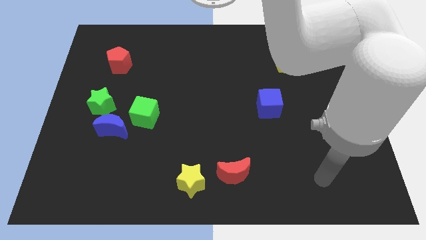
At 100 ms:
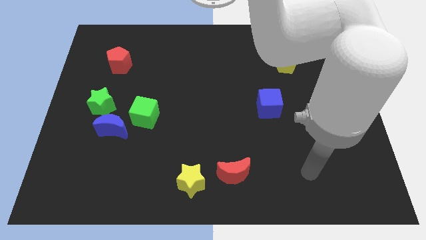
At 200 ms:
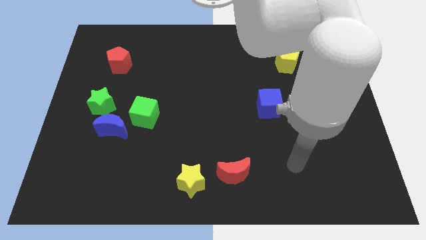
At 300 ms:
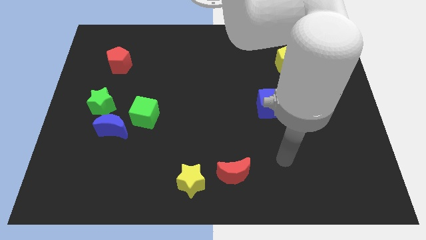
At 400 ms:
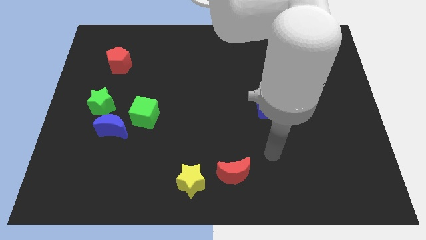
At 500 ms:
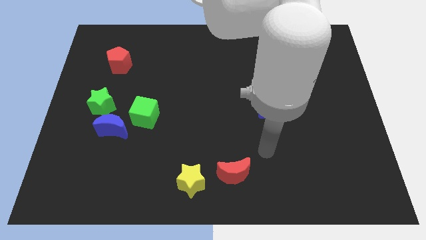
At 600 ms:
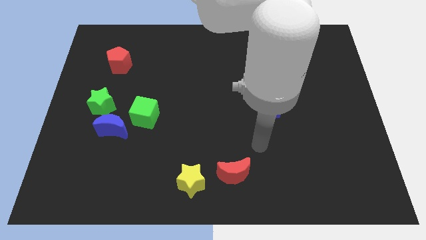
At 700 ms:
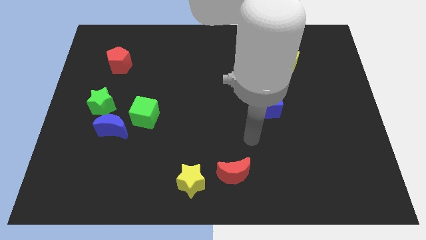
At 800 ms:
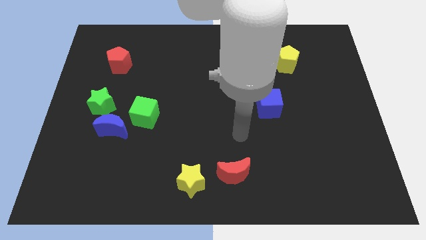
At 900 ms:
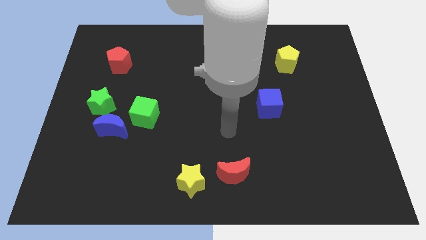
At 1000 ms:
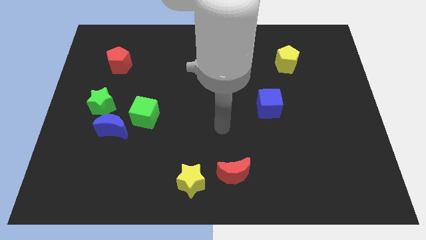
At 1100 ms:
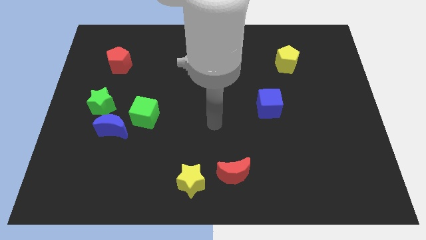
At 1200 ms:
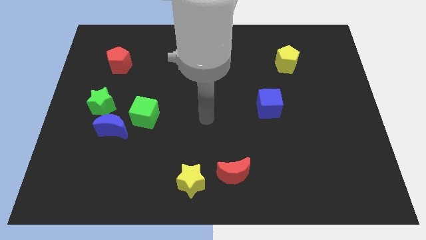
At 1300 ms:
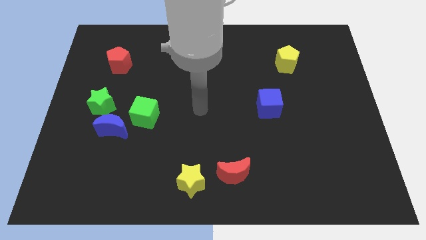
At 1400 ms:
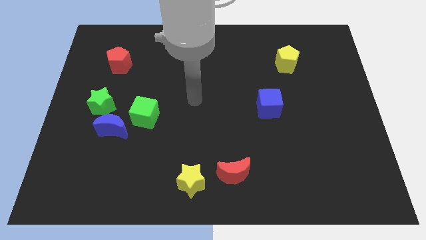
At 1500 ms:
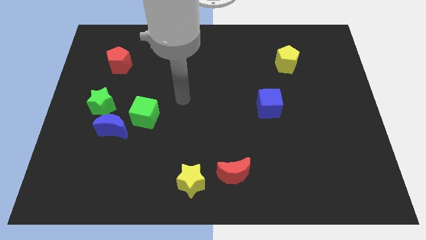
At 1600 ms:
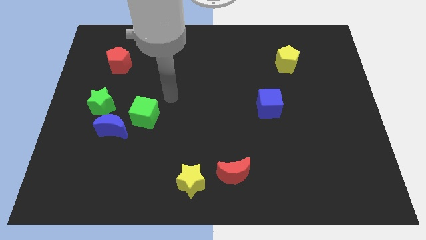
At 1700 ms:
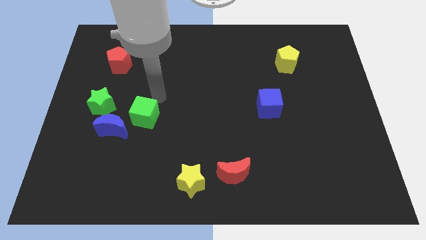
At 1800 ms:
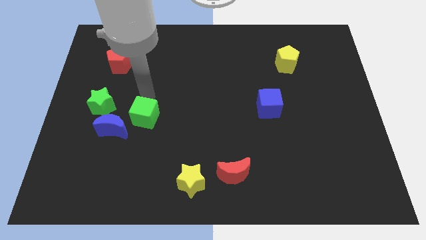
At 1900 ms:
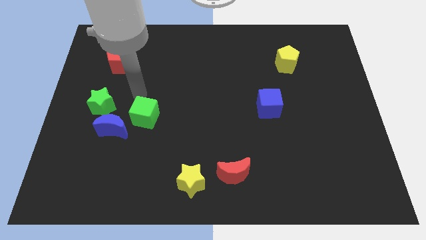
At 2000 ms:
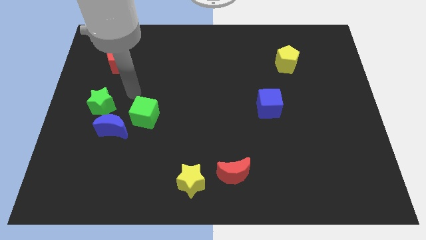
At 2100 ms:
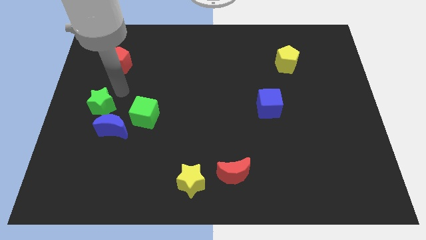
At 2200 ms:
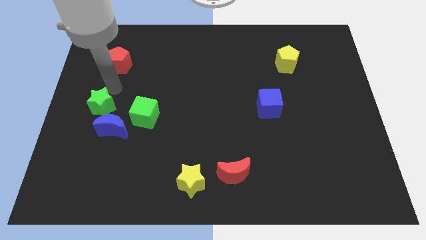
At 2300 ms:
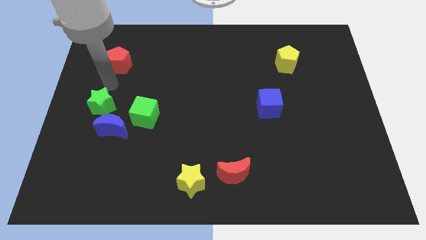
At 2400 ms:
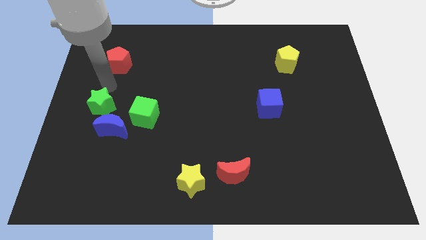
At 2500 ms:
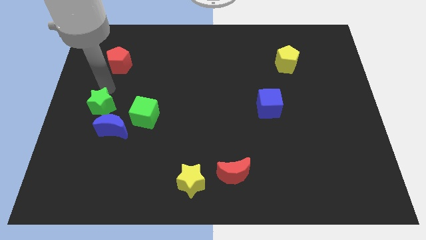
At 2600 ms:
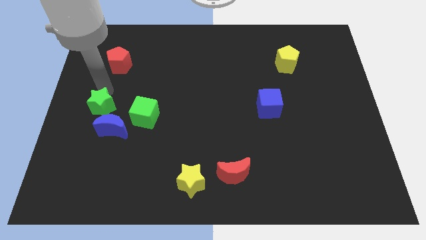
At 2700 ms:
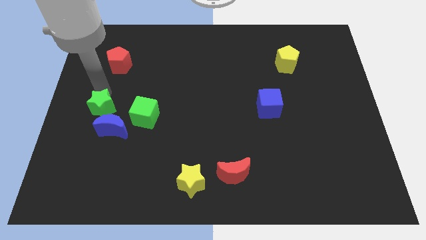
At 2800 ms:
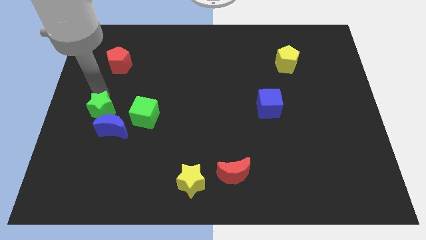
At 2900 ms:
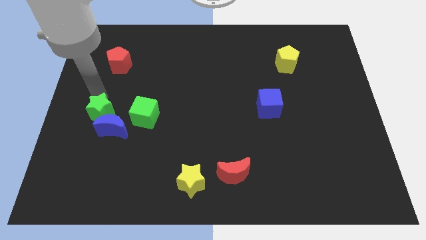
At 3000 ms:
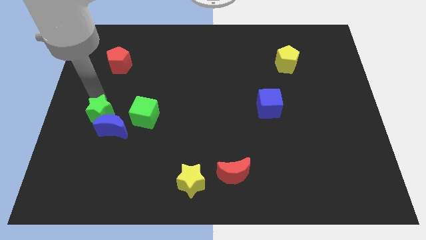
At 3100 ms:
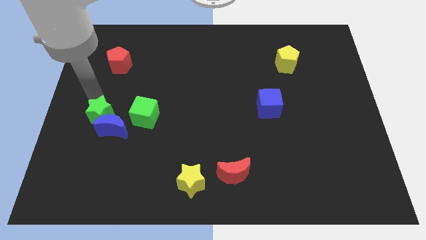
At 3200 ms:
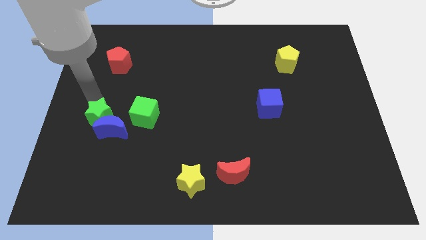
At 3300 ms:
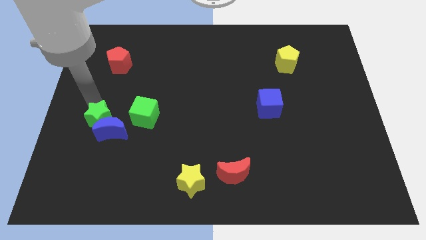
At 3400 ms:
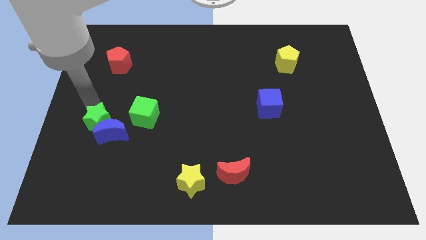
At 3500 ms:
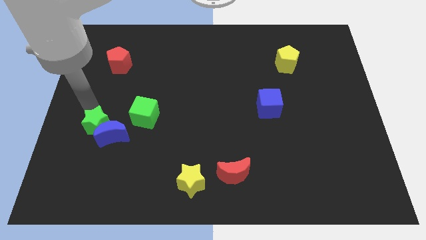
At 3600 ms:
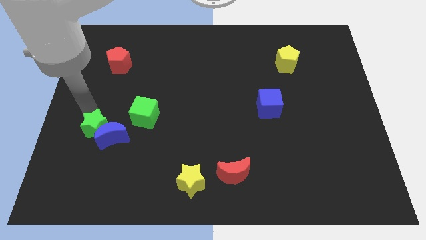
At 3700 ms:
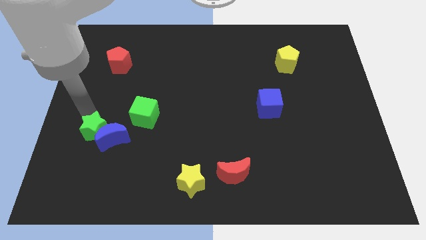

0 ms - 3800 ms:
move the green star a little bit down

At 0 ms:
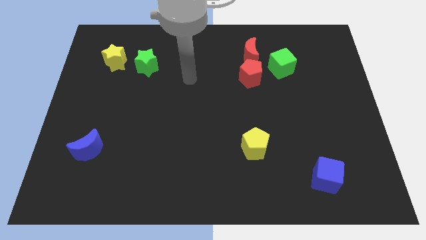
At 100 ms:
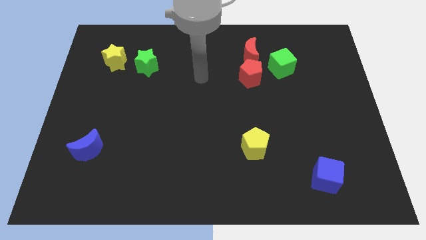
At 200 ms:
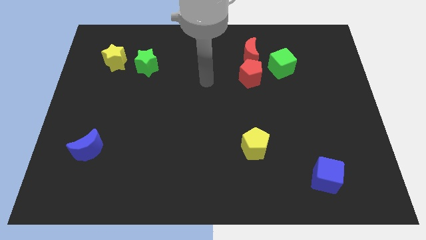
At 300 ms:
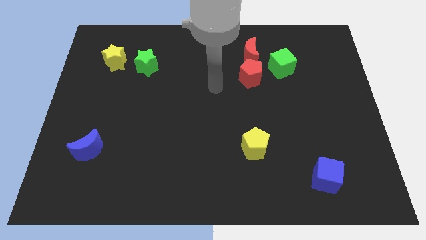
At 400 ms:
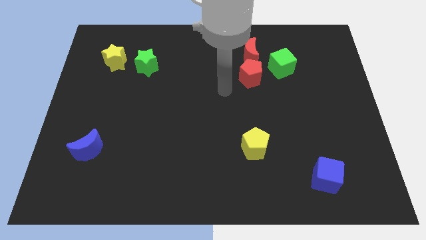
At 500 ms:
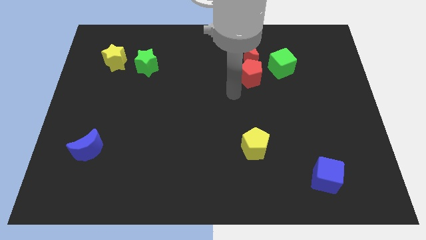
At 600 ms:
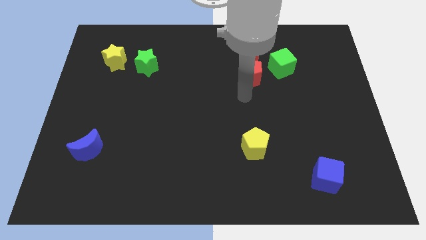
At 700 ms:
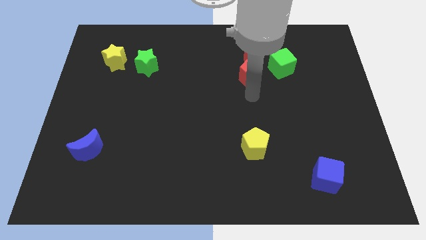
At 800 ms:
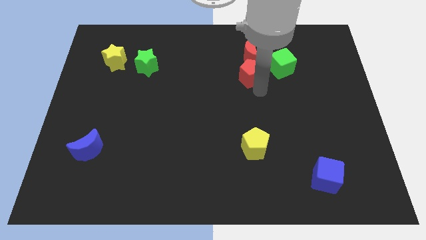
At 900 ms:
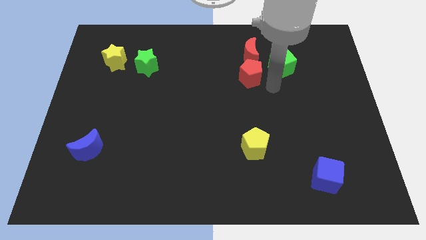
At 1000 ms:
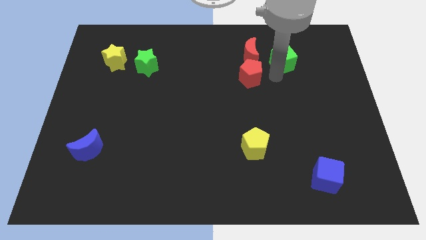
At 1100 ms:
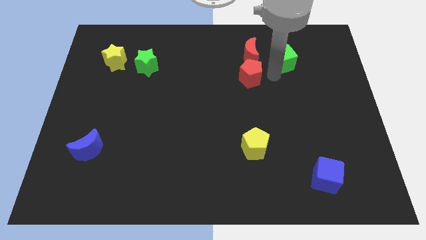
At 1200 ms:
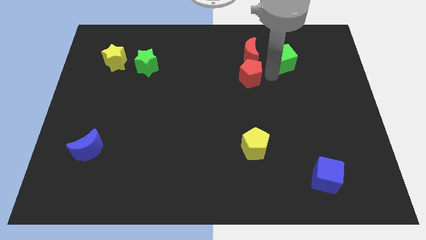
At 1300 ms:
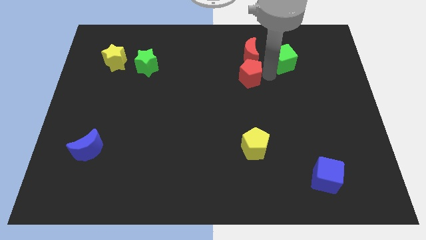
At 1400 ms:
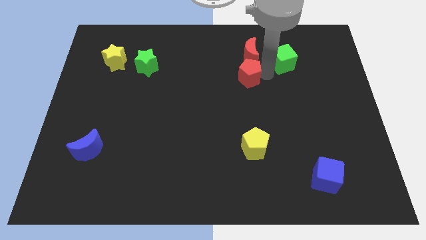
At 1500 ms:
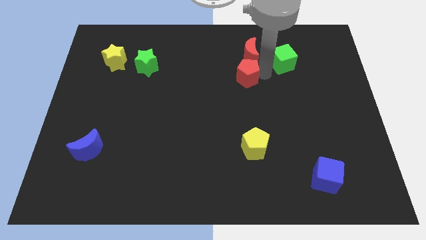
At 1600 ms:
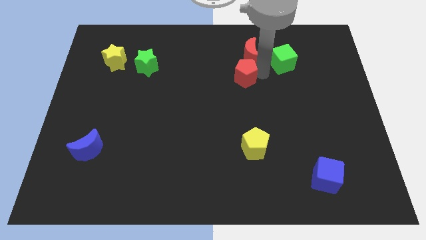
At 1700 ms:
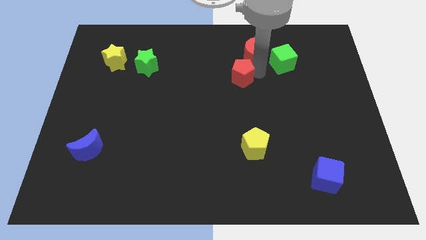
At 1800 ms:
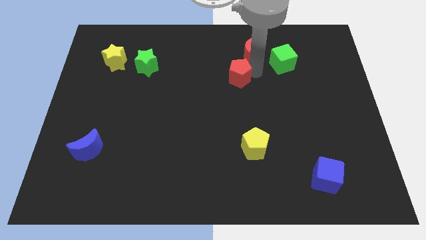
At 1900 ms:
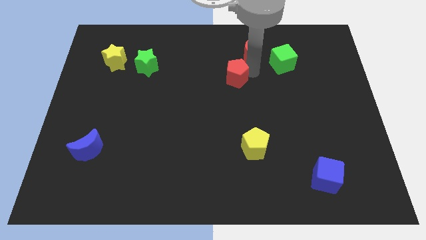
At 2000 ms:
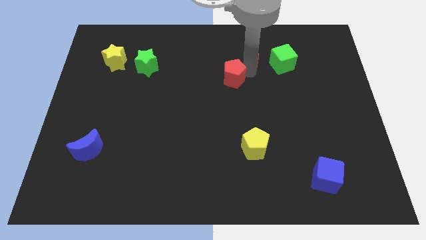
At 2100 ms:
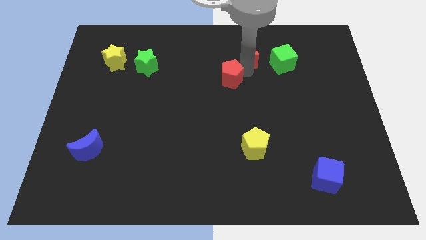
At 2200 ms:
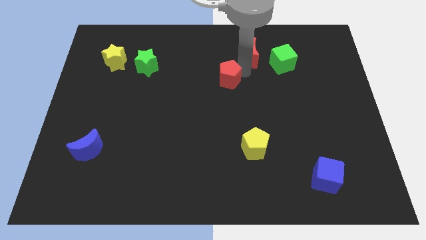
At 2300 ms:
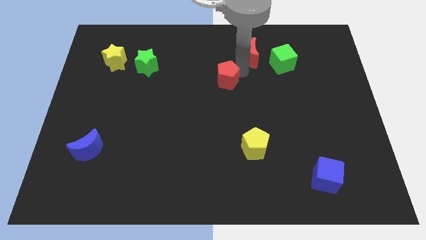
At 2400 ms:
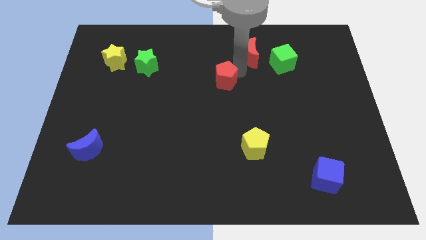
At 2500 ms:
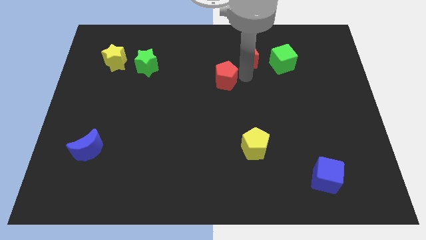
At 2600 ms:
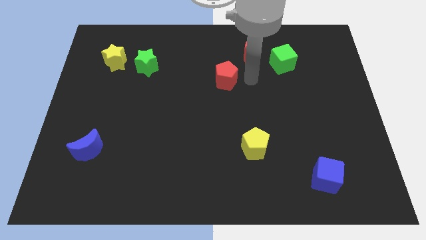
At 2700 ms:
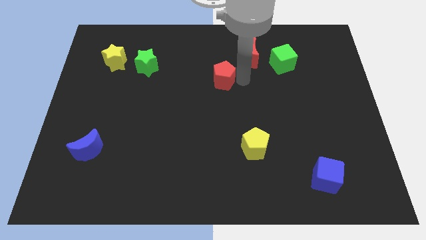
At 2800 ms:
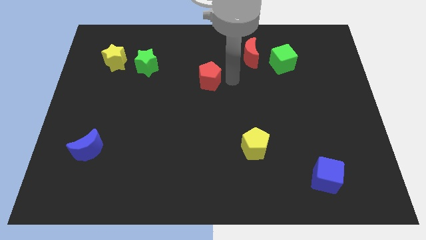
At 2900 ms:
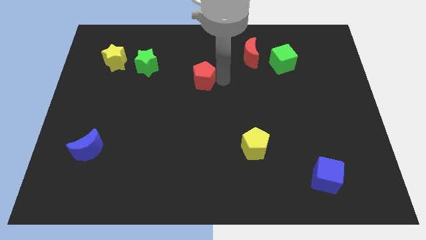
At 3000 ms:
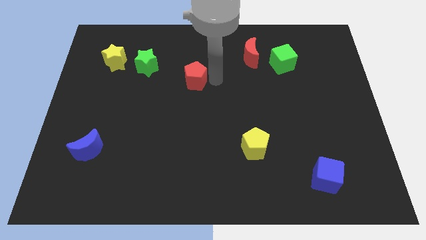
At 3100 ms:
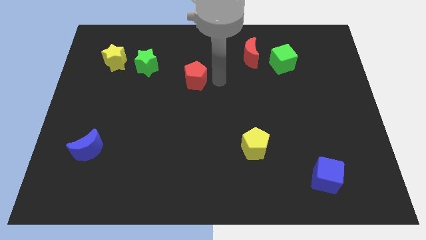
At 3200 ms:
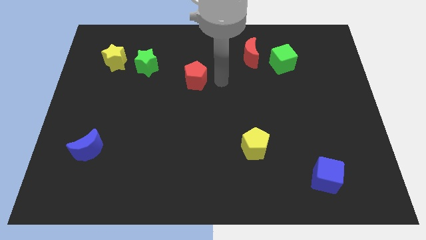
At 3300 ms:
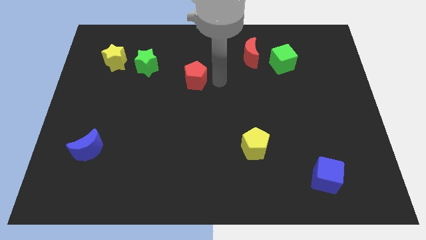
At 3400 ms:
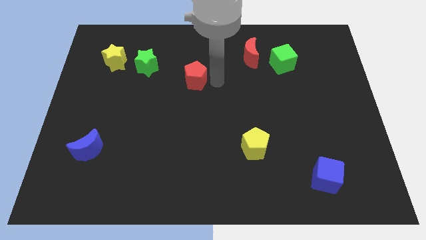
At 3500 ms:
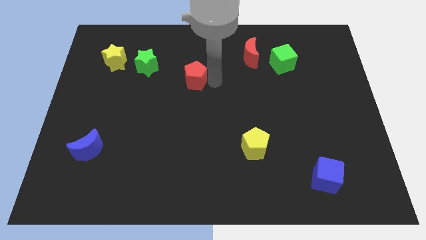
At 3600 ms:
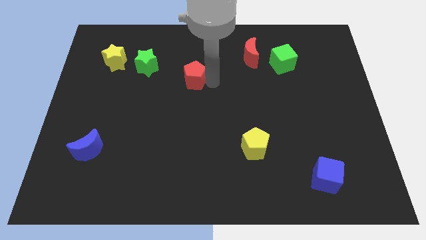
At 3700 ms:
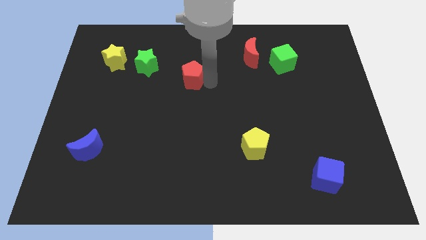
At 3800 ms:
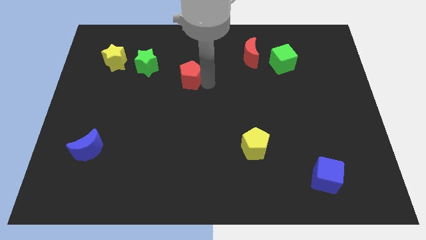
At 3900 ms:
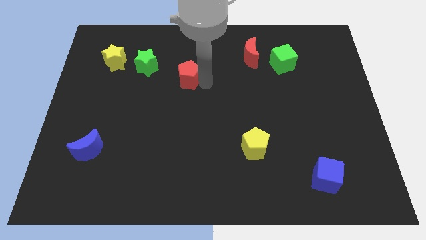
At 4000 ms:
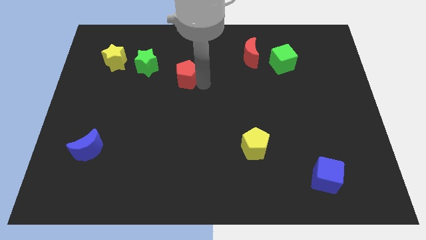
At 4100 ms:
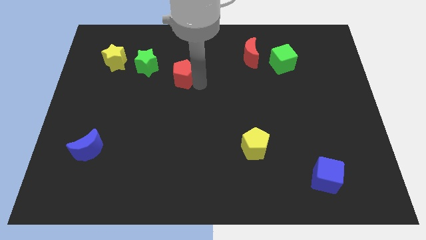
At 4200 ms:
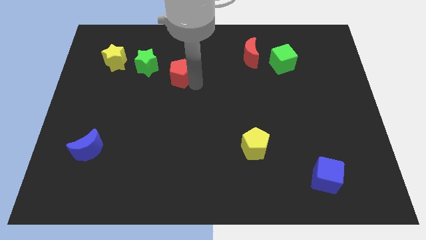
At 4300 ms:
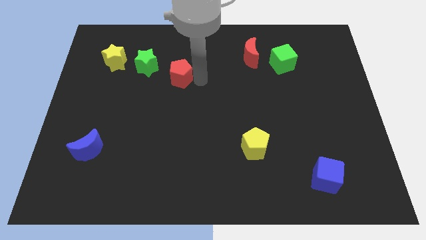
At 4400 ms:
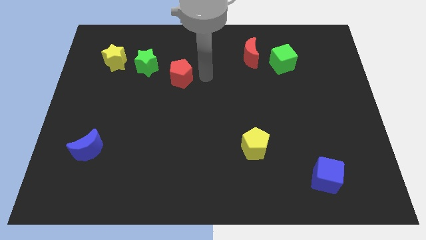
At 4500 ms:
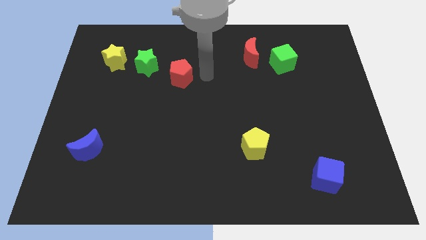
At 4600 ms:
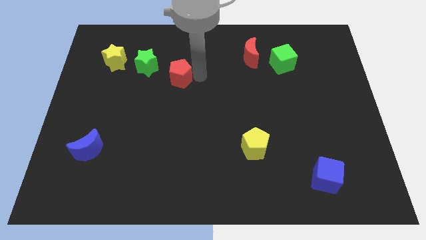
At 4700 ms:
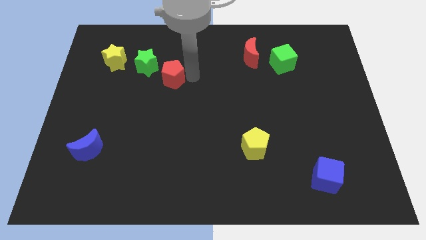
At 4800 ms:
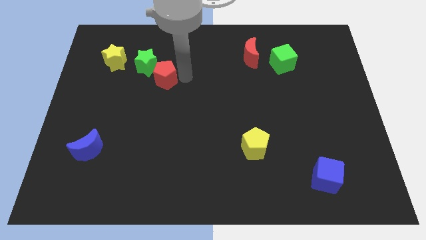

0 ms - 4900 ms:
push the red pentagon to the left
